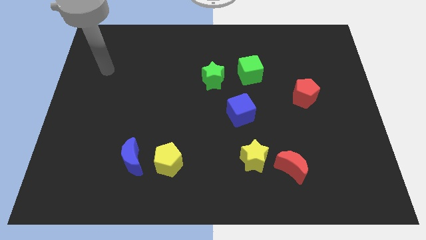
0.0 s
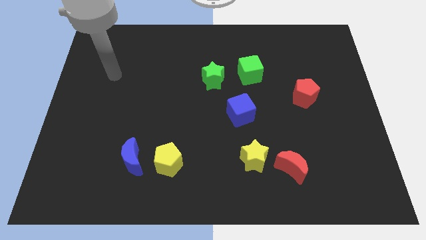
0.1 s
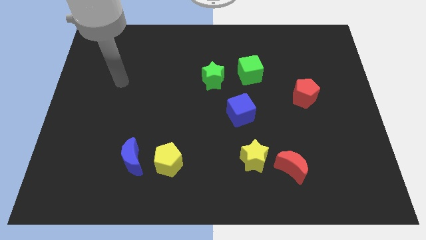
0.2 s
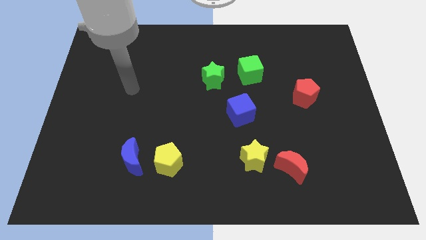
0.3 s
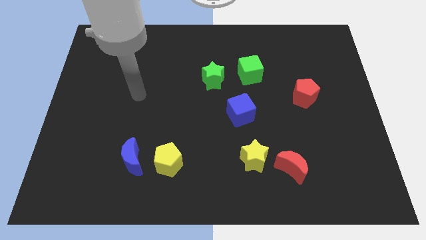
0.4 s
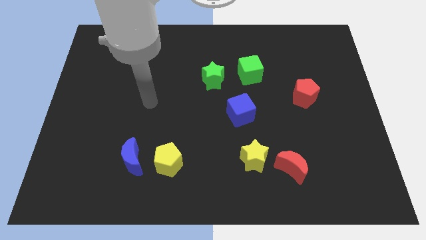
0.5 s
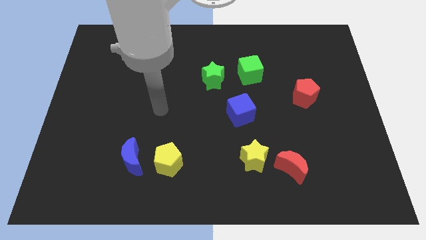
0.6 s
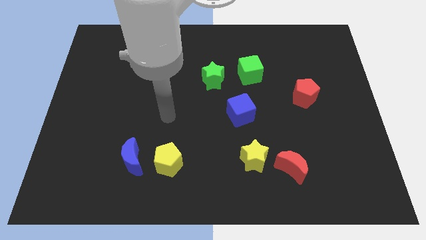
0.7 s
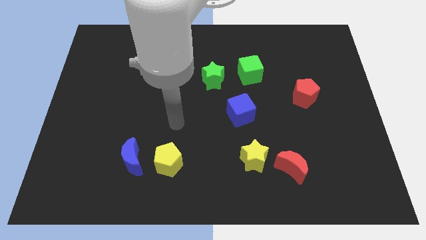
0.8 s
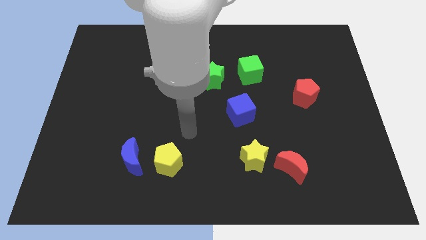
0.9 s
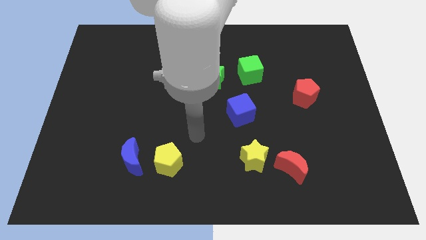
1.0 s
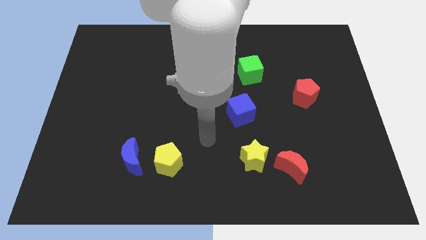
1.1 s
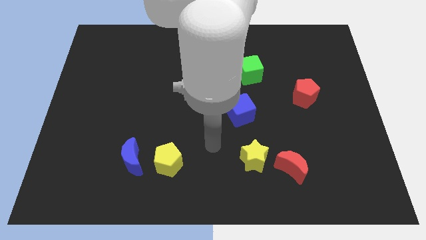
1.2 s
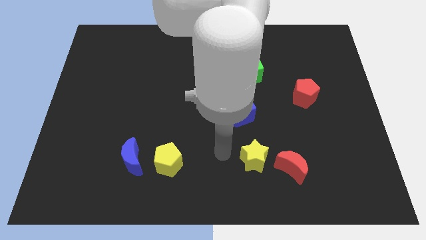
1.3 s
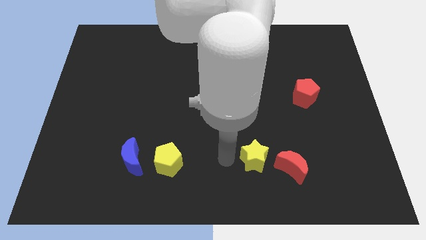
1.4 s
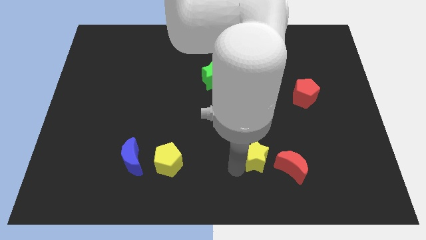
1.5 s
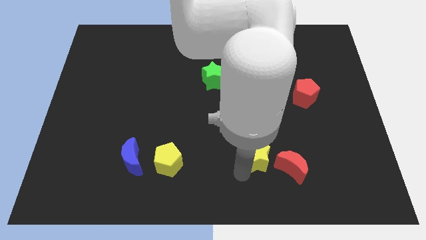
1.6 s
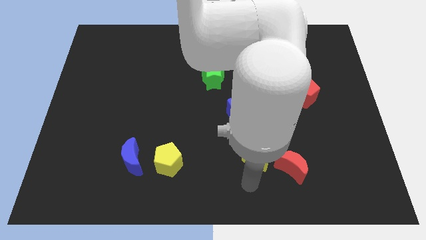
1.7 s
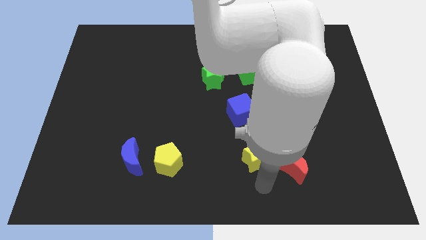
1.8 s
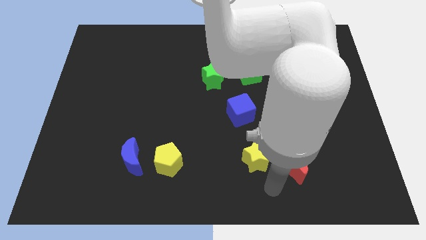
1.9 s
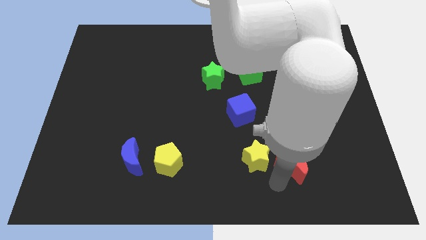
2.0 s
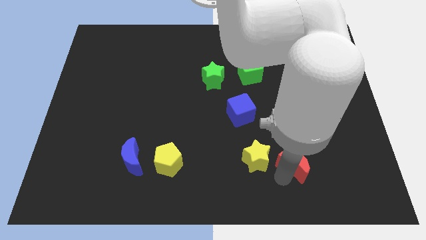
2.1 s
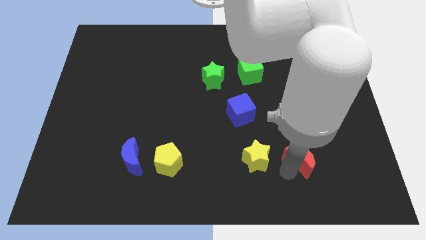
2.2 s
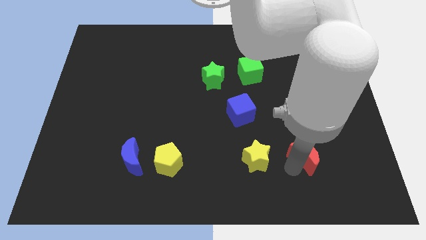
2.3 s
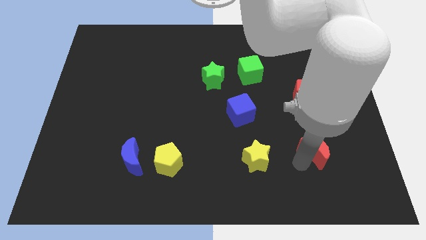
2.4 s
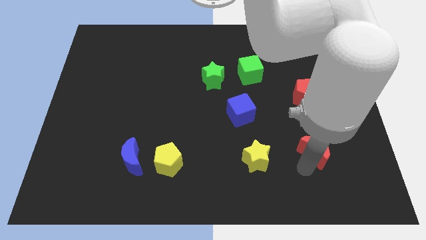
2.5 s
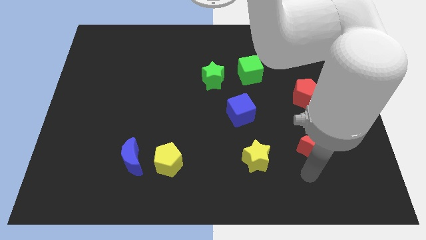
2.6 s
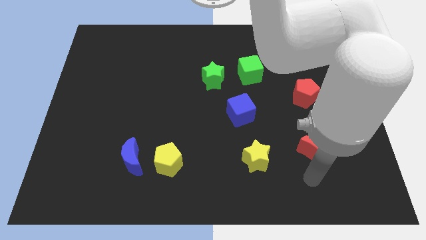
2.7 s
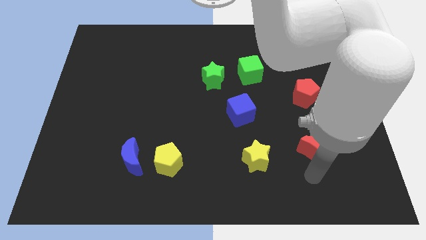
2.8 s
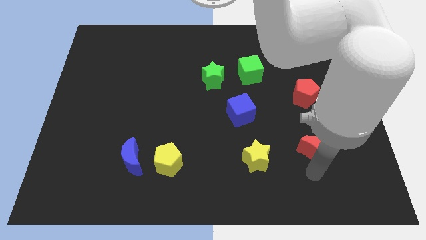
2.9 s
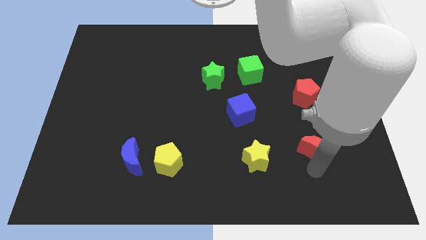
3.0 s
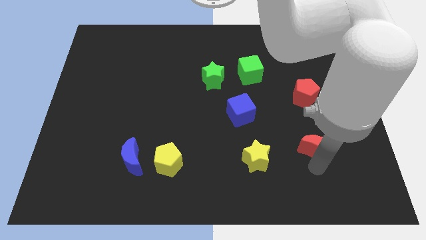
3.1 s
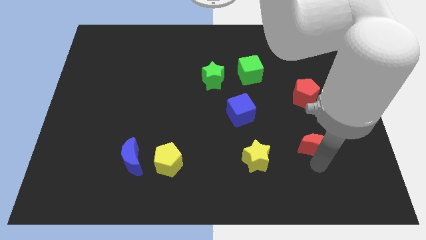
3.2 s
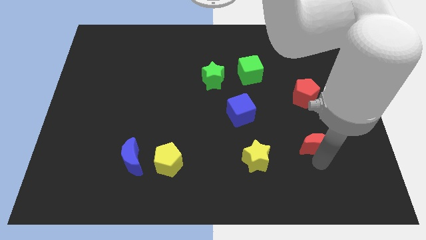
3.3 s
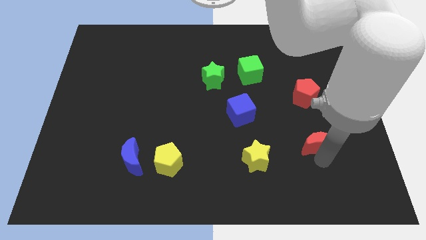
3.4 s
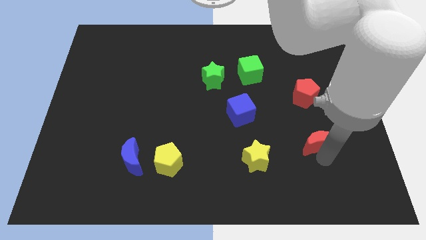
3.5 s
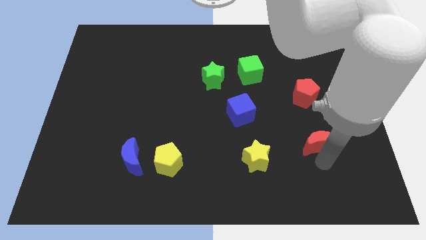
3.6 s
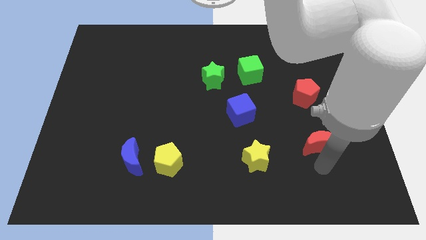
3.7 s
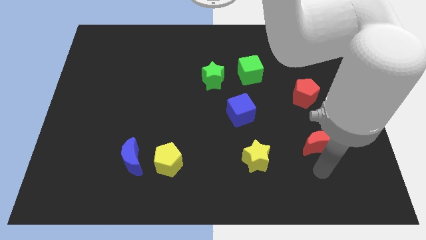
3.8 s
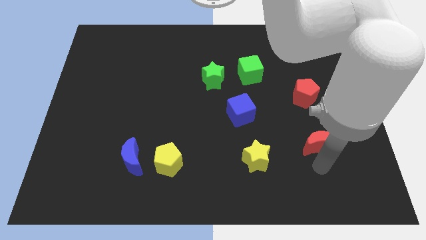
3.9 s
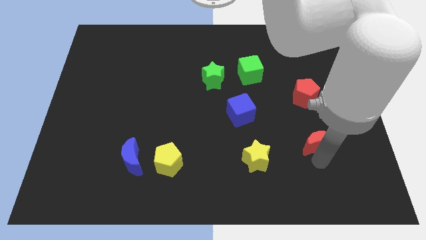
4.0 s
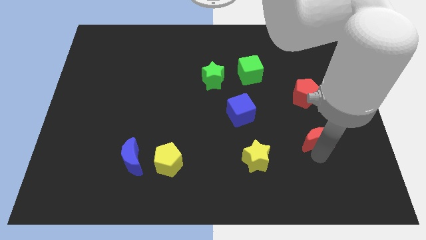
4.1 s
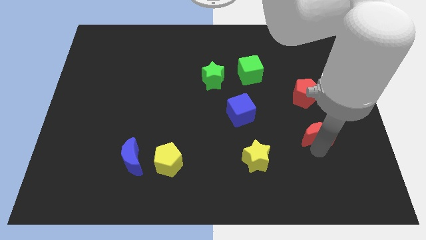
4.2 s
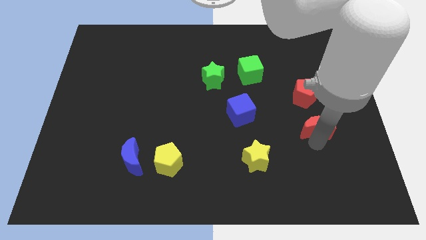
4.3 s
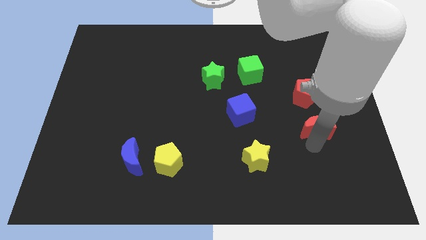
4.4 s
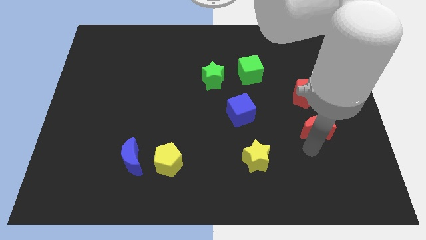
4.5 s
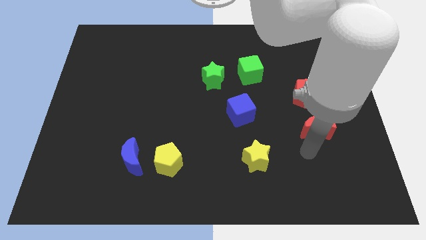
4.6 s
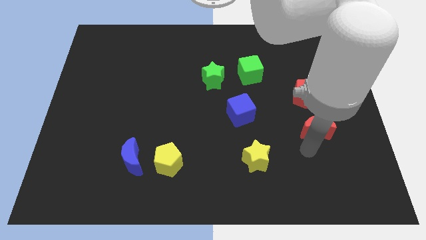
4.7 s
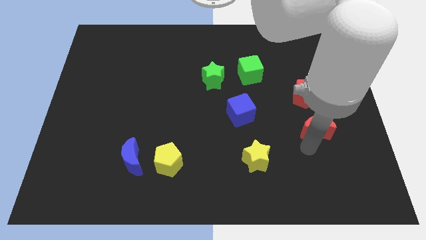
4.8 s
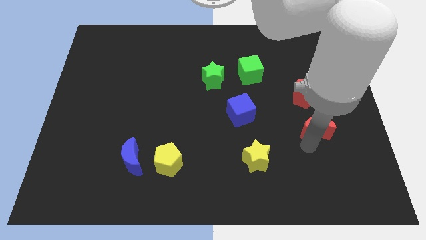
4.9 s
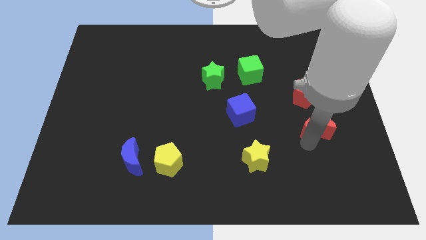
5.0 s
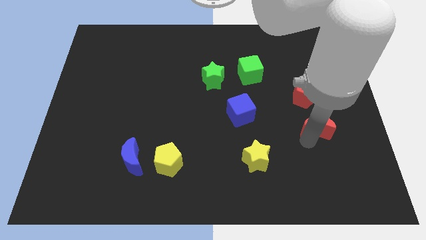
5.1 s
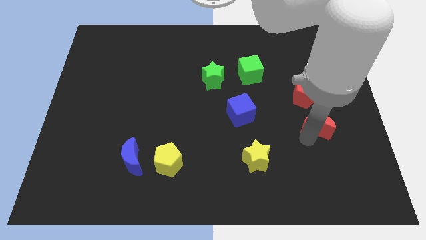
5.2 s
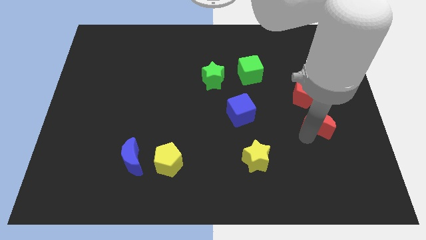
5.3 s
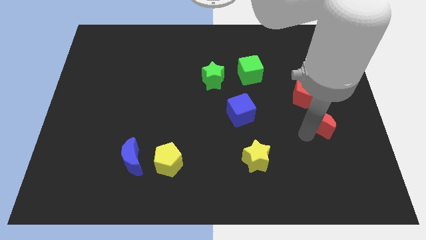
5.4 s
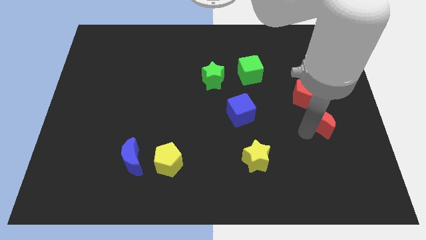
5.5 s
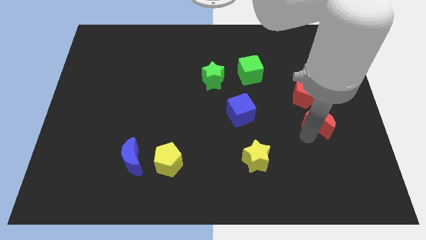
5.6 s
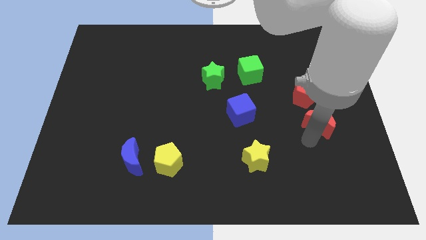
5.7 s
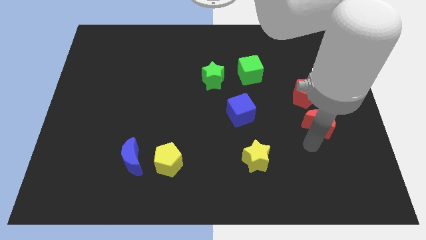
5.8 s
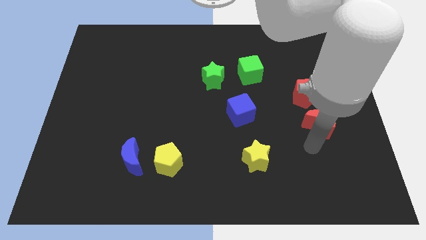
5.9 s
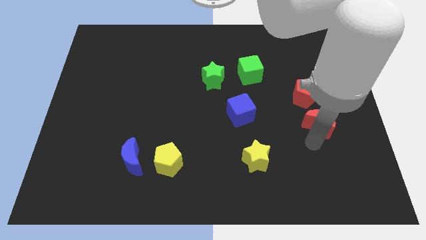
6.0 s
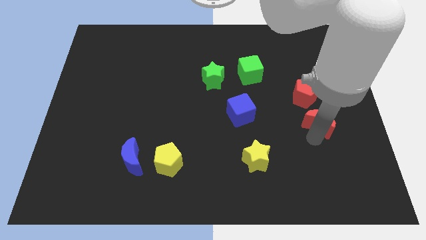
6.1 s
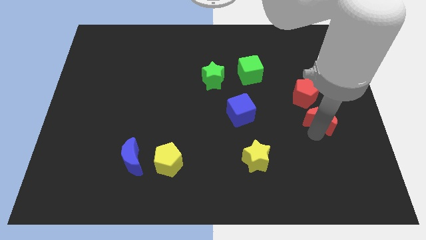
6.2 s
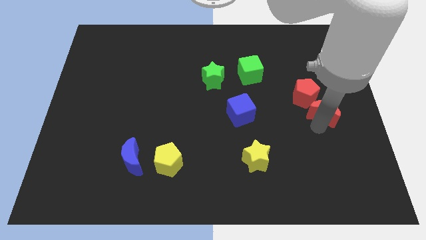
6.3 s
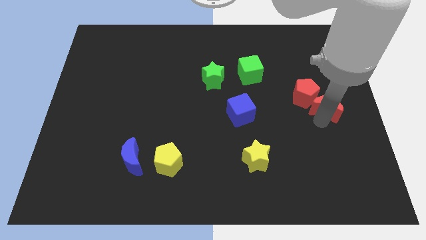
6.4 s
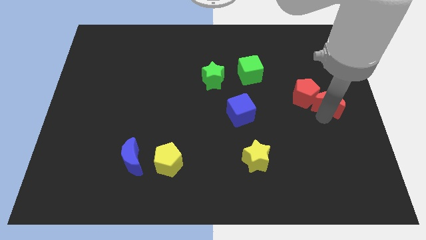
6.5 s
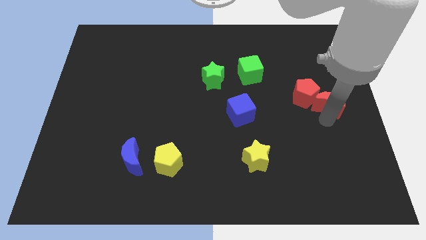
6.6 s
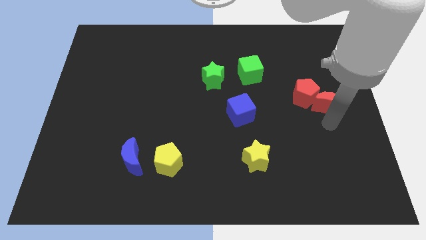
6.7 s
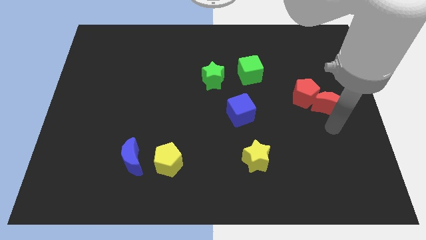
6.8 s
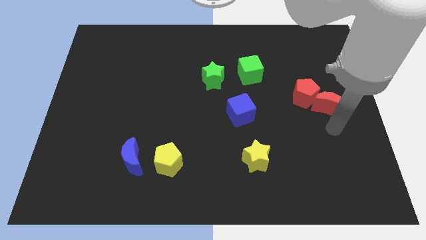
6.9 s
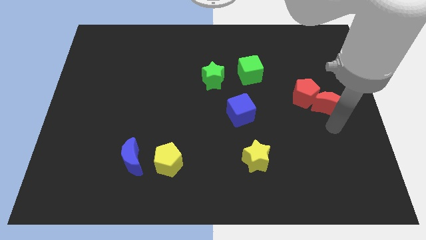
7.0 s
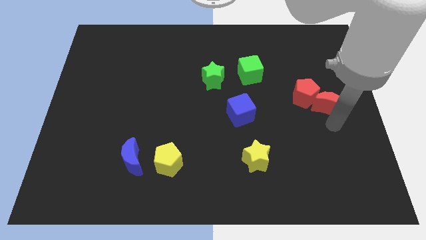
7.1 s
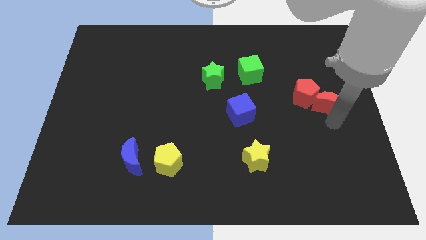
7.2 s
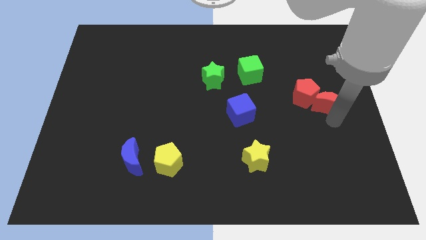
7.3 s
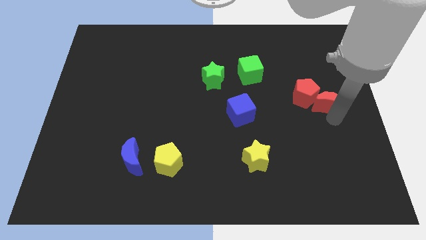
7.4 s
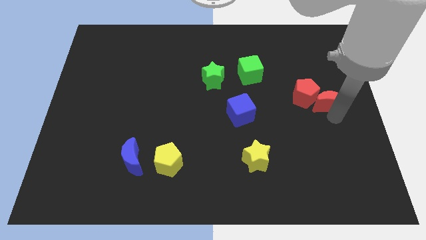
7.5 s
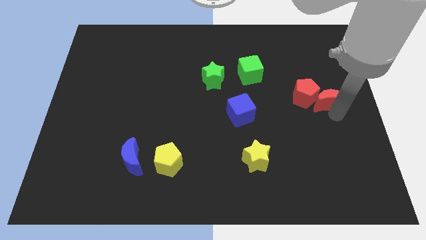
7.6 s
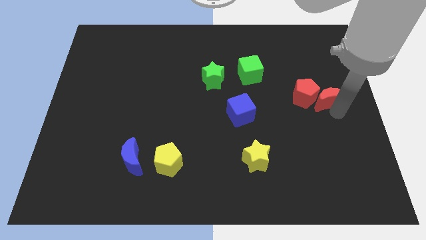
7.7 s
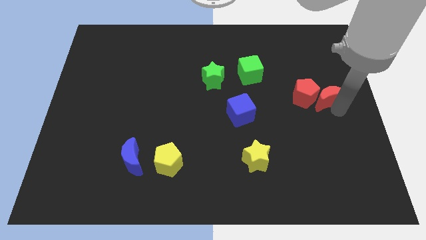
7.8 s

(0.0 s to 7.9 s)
put the red moon to the top right side of the red pentagon
